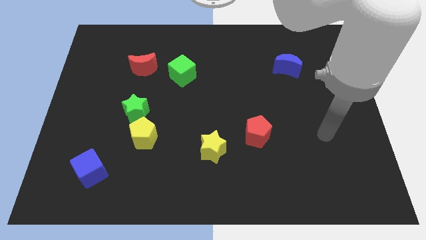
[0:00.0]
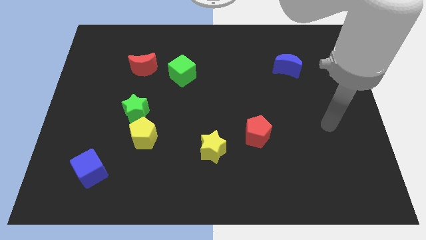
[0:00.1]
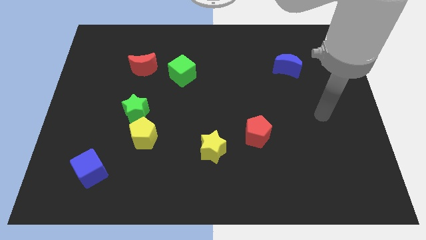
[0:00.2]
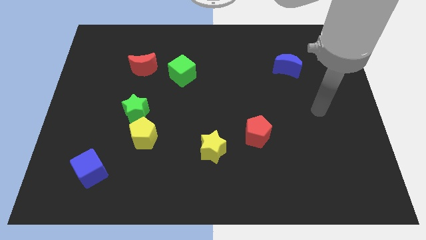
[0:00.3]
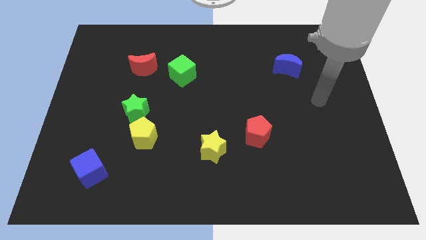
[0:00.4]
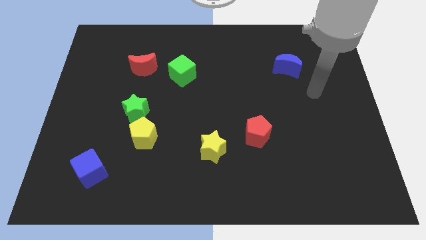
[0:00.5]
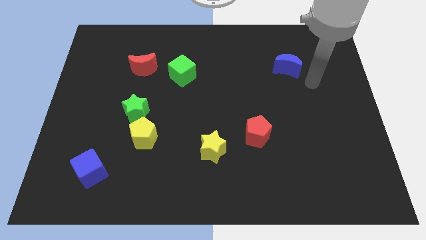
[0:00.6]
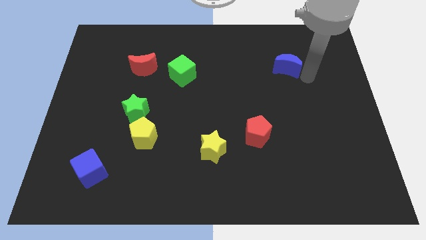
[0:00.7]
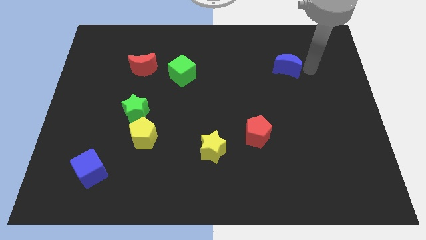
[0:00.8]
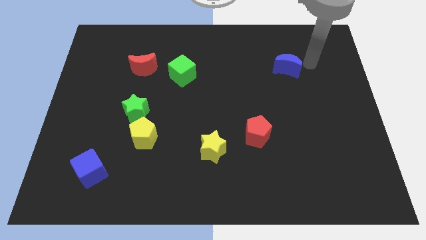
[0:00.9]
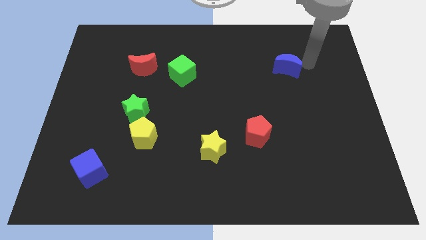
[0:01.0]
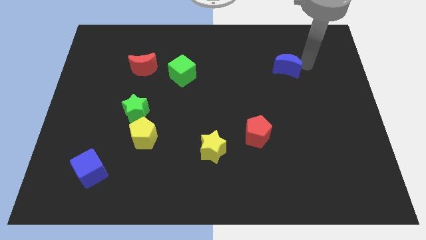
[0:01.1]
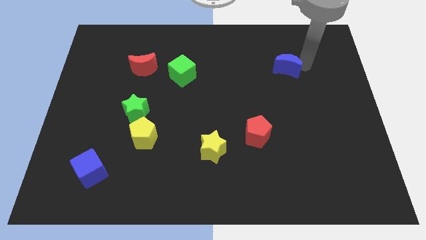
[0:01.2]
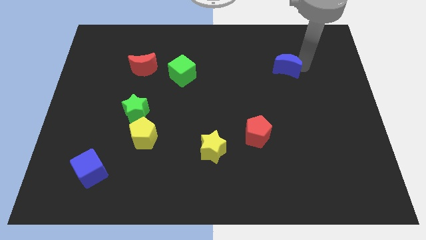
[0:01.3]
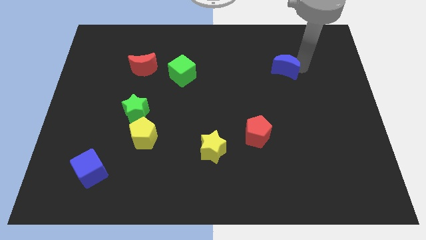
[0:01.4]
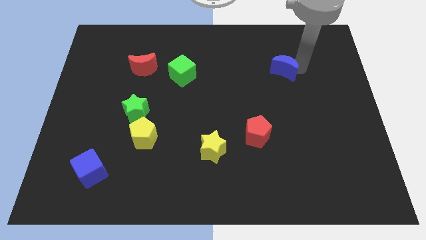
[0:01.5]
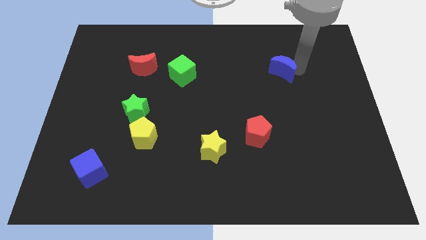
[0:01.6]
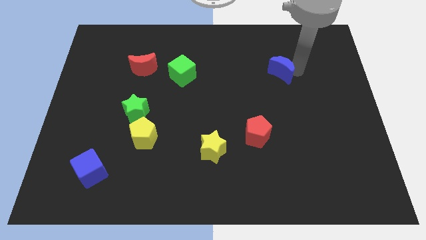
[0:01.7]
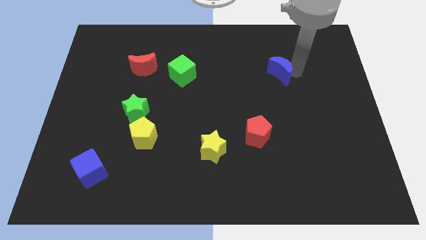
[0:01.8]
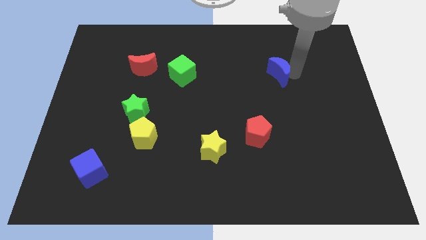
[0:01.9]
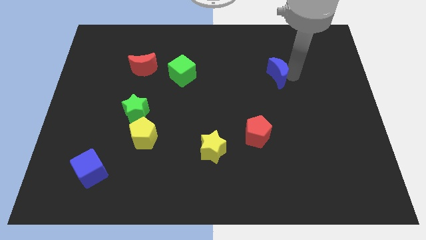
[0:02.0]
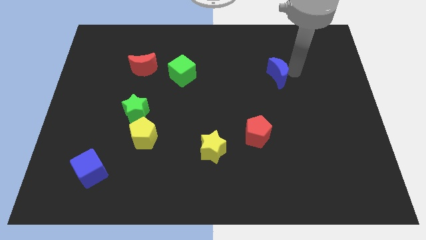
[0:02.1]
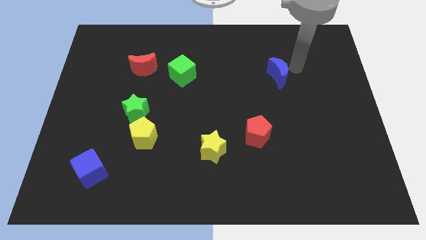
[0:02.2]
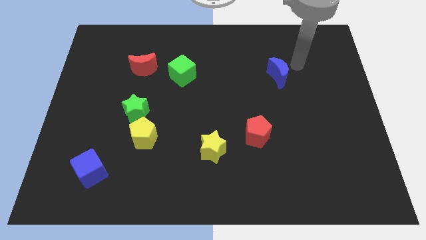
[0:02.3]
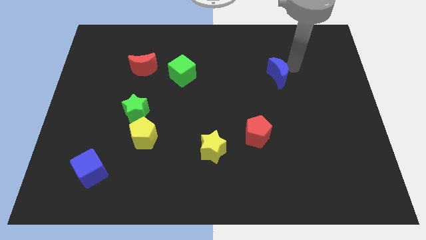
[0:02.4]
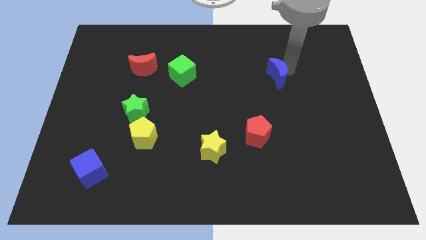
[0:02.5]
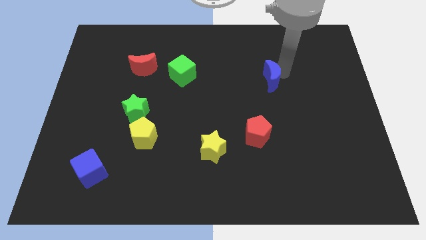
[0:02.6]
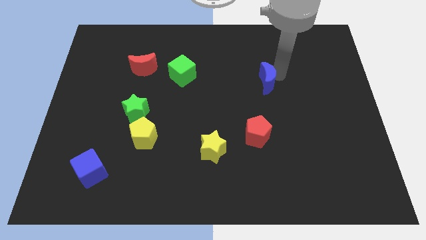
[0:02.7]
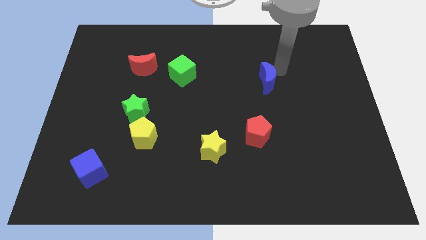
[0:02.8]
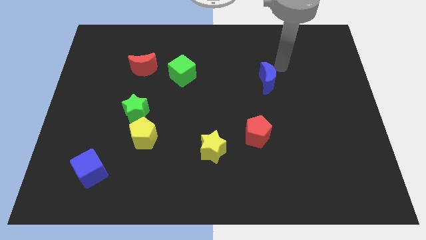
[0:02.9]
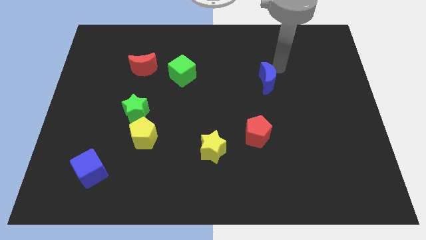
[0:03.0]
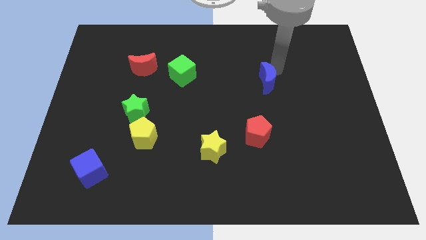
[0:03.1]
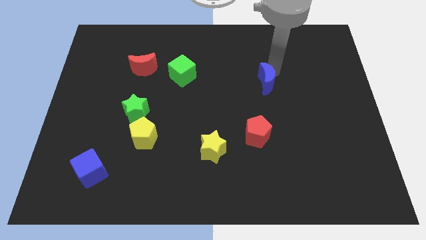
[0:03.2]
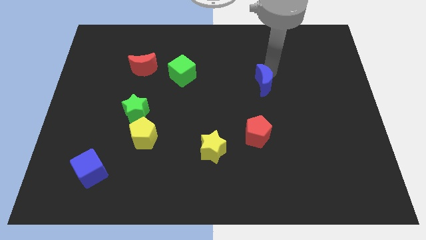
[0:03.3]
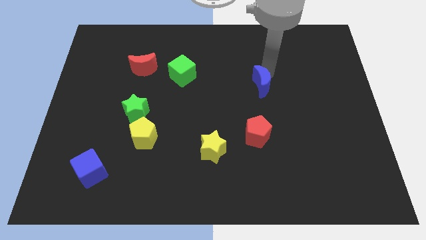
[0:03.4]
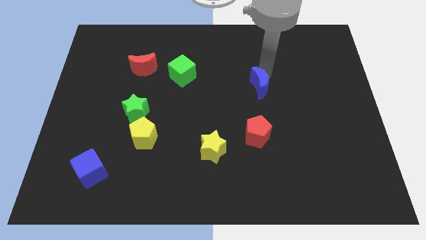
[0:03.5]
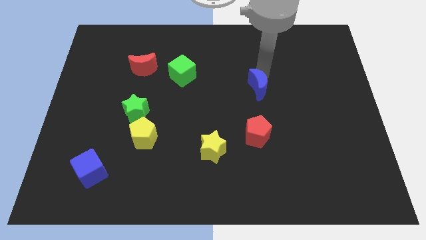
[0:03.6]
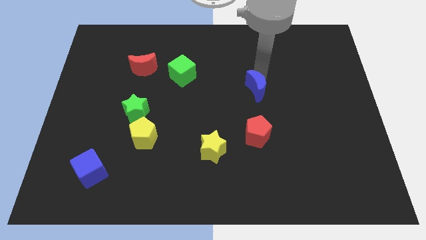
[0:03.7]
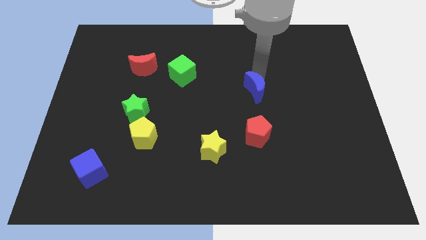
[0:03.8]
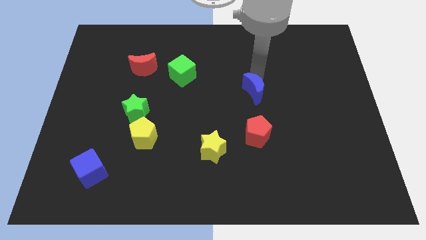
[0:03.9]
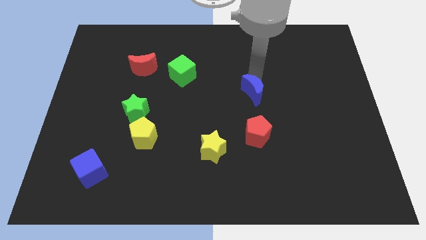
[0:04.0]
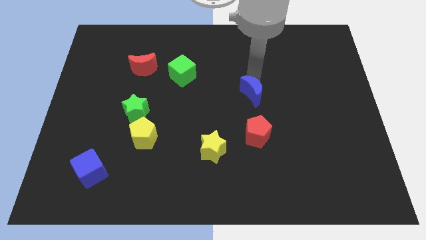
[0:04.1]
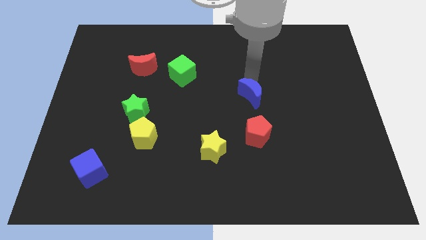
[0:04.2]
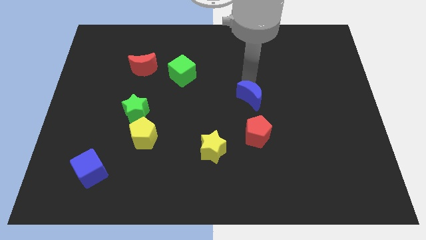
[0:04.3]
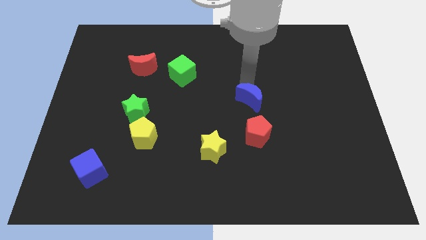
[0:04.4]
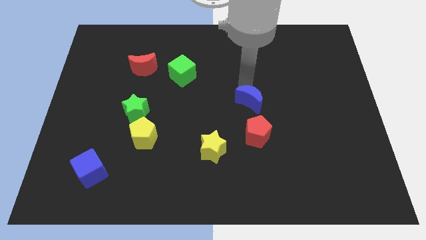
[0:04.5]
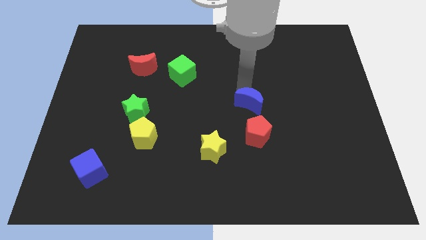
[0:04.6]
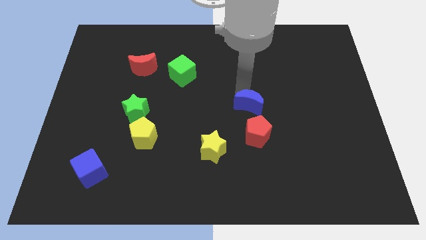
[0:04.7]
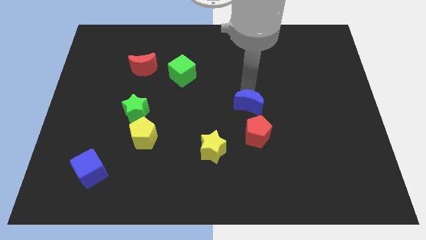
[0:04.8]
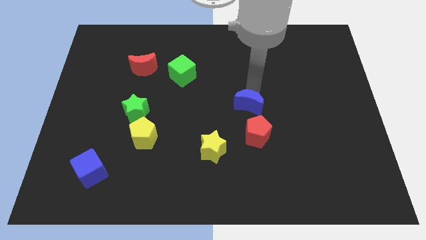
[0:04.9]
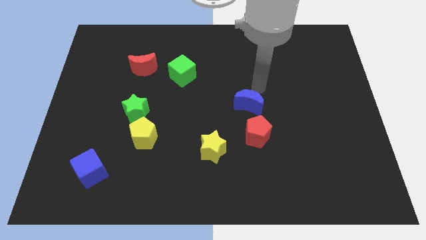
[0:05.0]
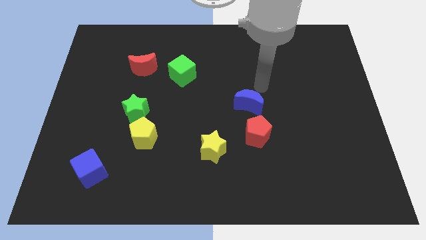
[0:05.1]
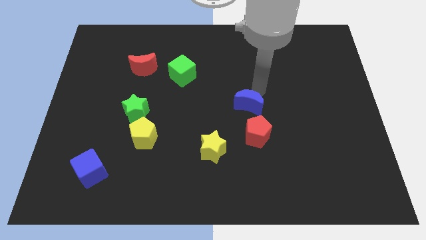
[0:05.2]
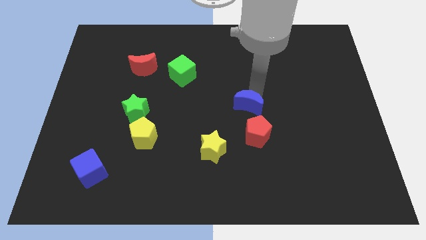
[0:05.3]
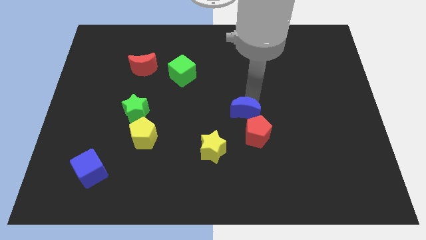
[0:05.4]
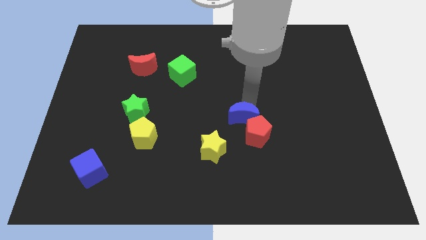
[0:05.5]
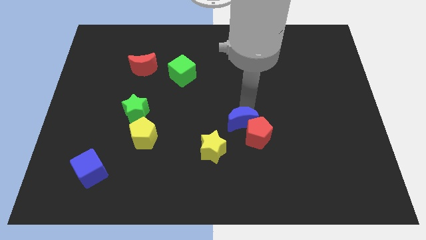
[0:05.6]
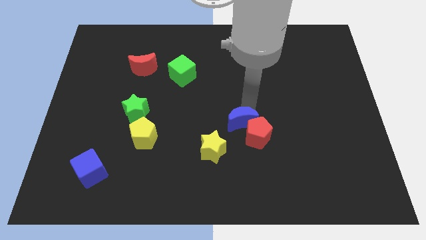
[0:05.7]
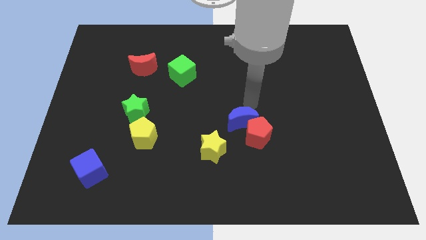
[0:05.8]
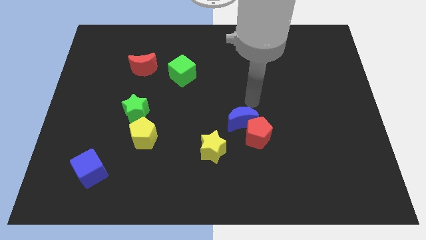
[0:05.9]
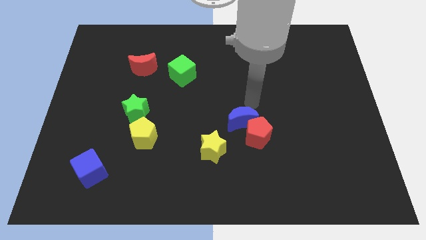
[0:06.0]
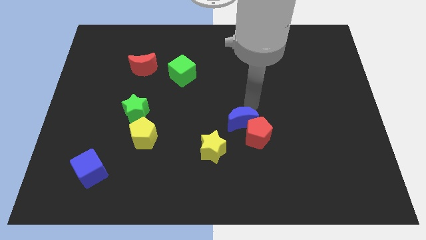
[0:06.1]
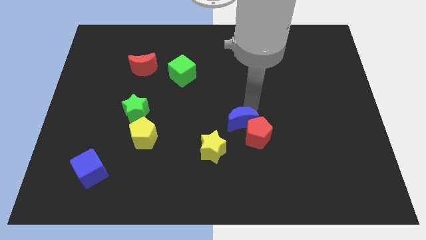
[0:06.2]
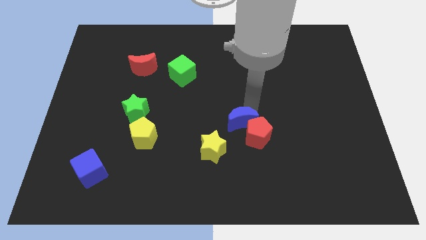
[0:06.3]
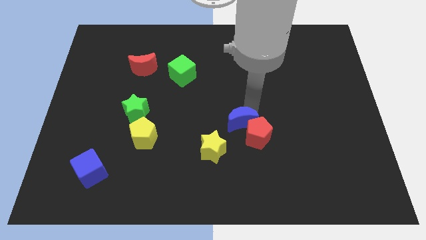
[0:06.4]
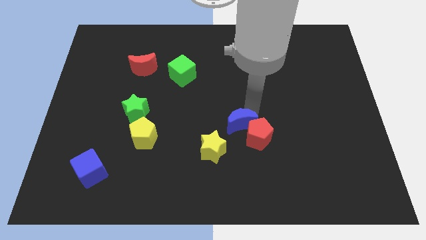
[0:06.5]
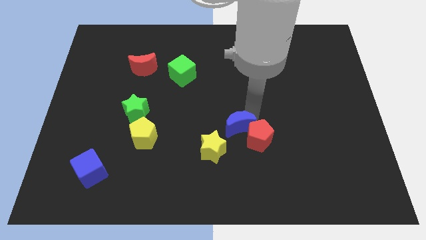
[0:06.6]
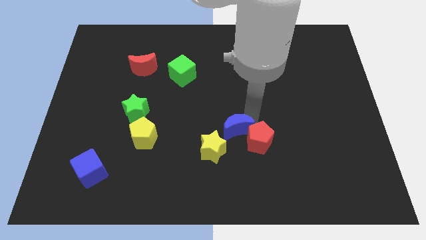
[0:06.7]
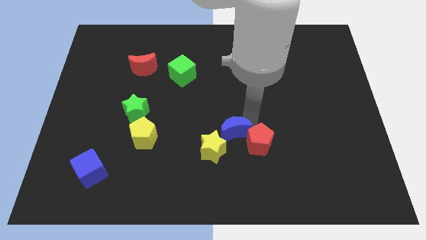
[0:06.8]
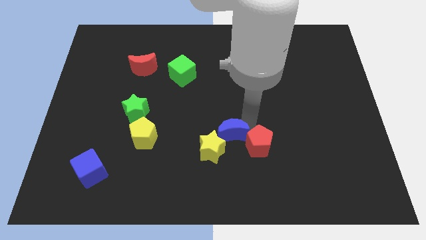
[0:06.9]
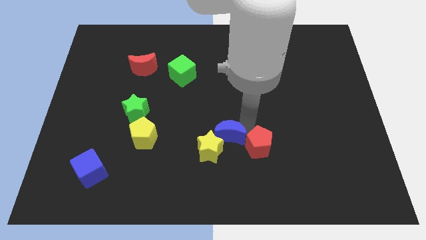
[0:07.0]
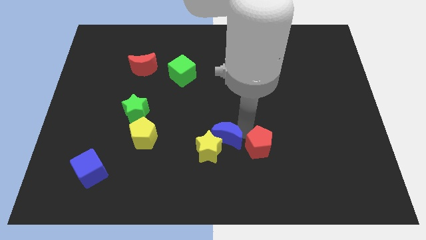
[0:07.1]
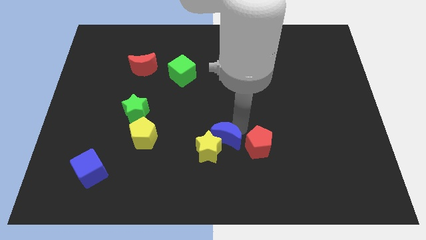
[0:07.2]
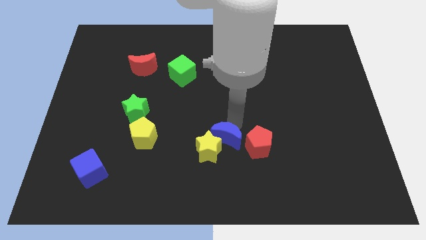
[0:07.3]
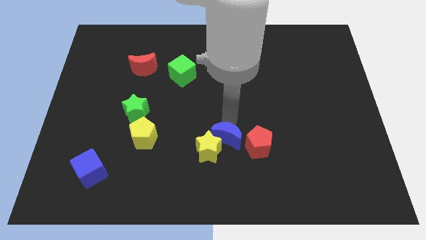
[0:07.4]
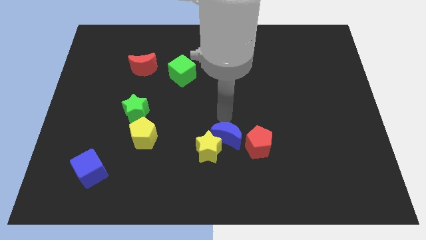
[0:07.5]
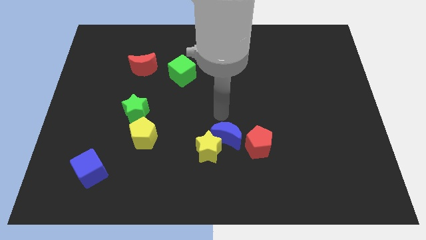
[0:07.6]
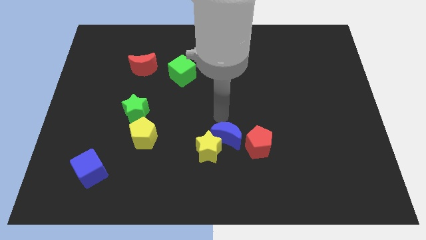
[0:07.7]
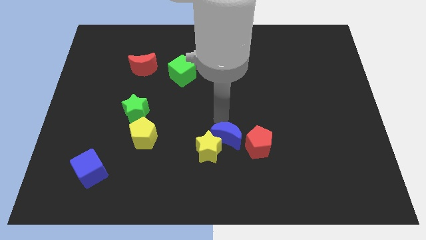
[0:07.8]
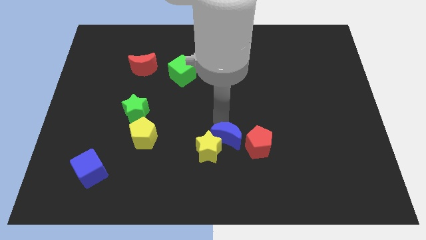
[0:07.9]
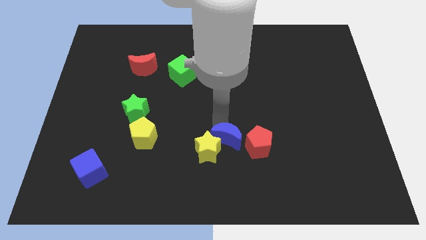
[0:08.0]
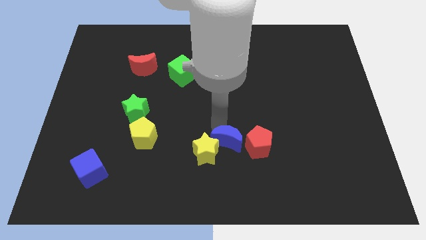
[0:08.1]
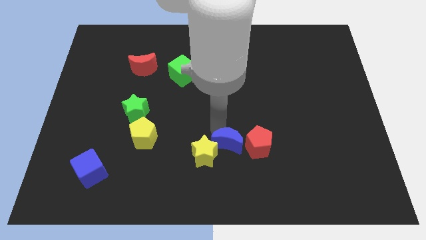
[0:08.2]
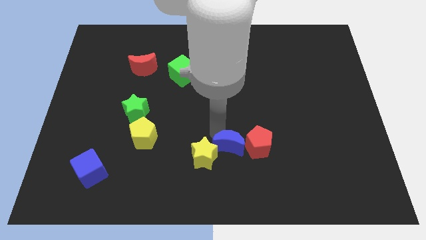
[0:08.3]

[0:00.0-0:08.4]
slide the blue moon to the bottom left of the red pentagon
